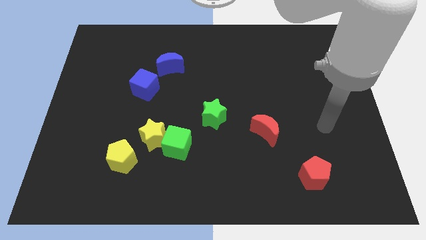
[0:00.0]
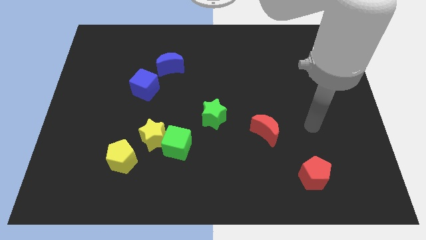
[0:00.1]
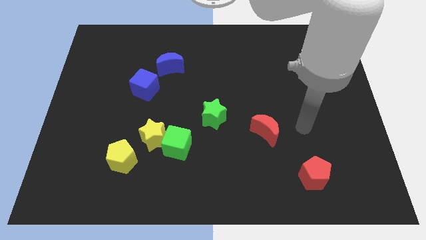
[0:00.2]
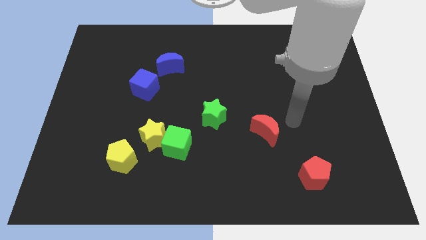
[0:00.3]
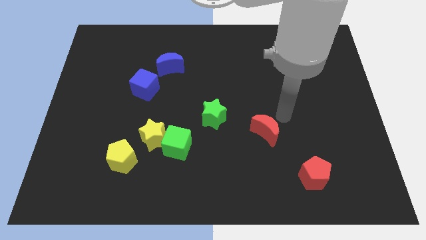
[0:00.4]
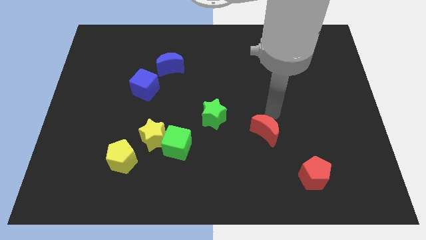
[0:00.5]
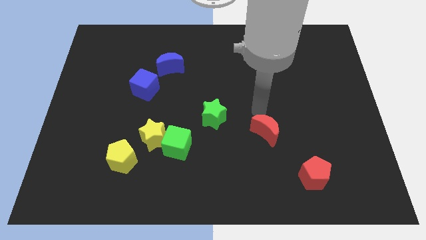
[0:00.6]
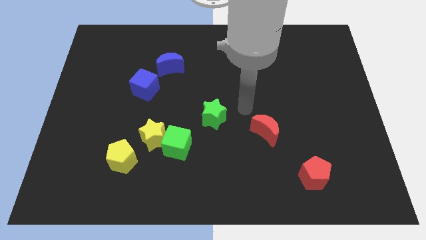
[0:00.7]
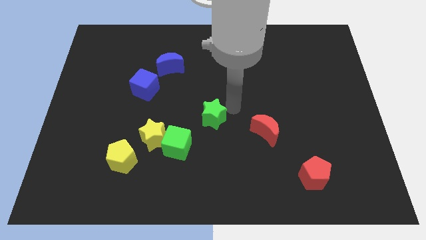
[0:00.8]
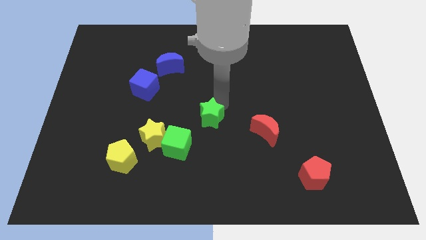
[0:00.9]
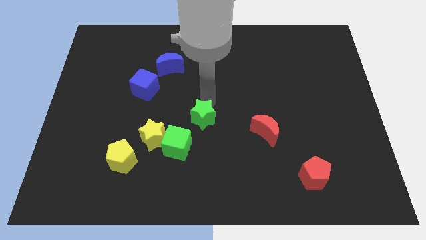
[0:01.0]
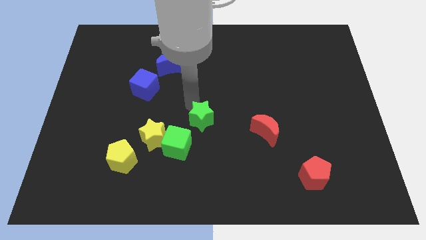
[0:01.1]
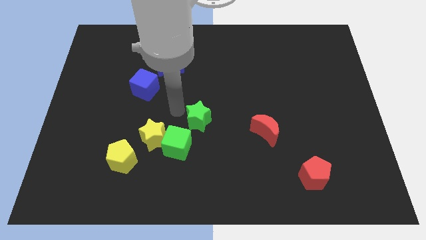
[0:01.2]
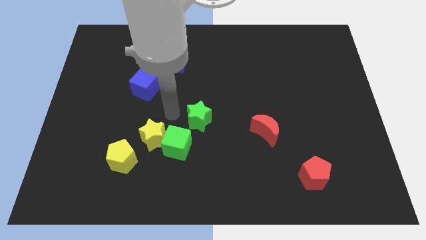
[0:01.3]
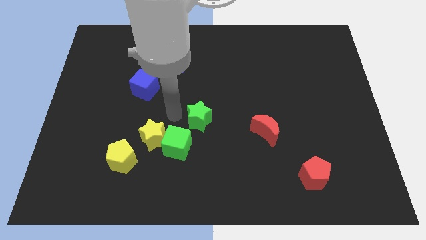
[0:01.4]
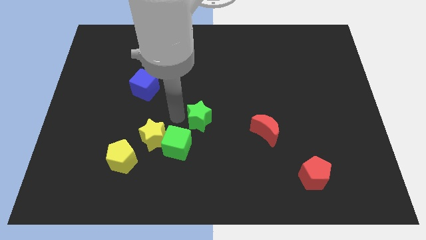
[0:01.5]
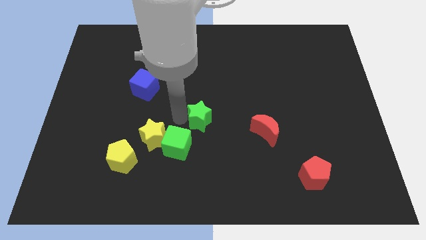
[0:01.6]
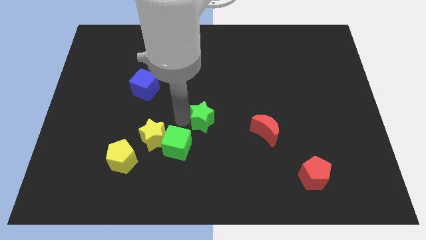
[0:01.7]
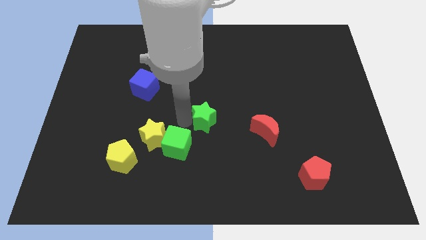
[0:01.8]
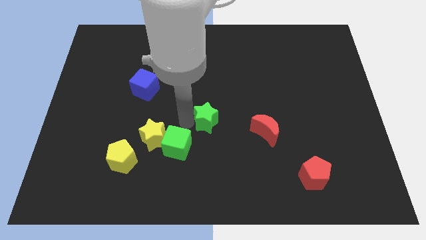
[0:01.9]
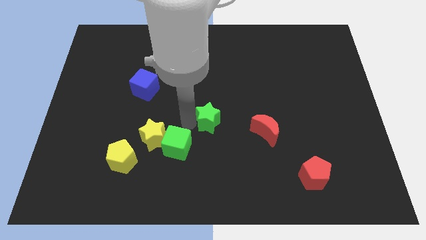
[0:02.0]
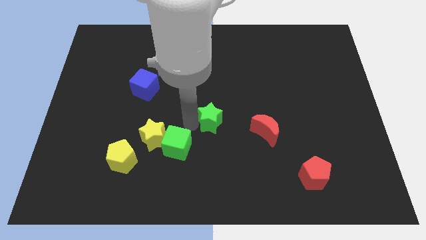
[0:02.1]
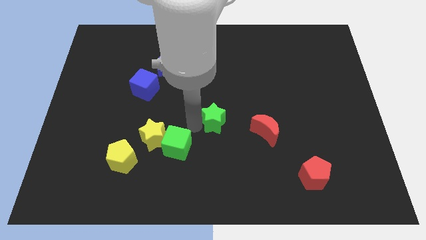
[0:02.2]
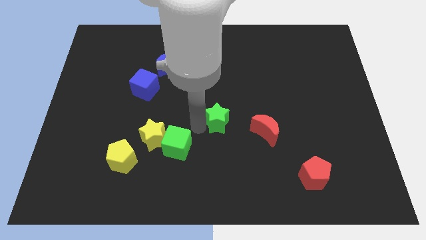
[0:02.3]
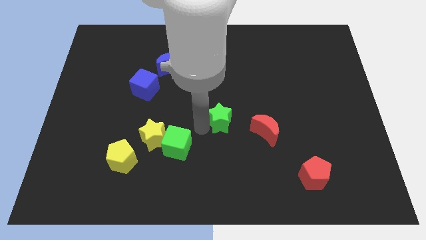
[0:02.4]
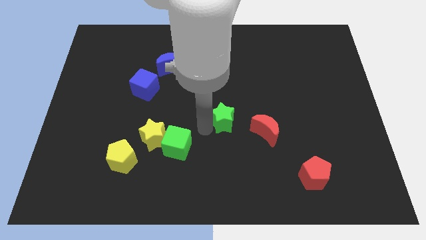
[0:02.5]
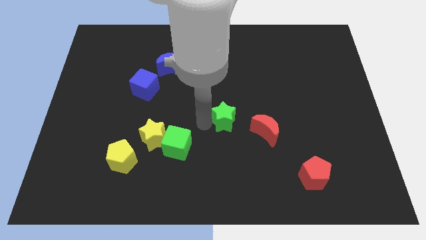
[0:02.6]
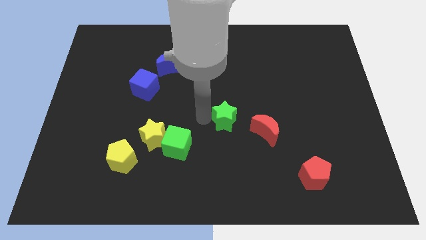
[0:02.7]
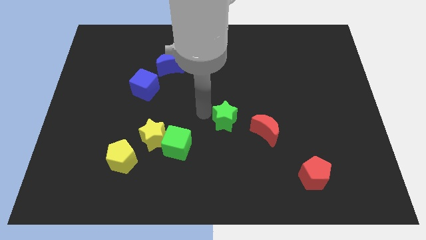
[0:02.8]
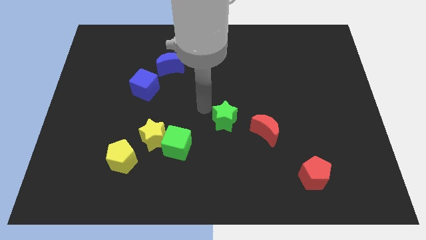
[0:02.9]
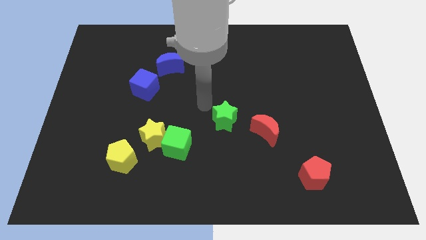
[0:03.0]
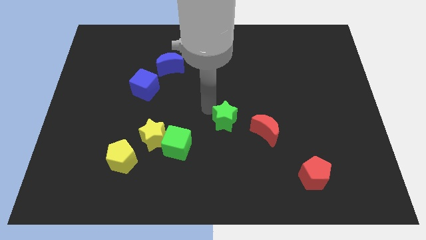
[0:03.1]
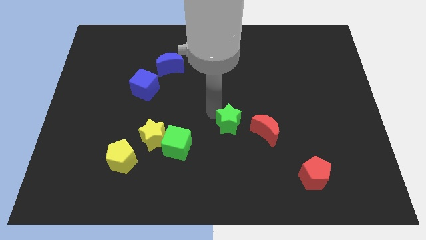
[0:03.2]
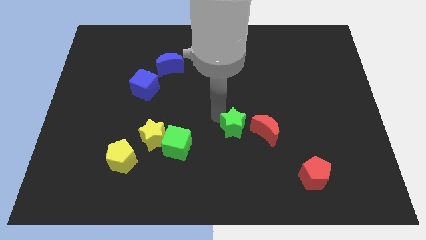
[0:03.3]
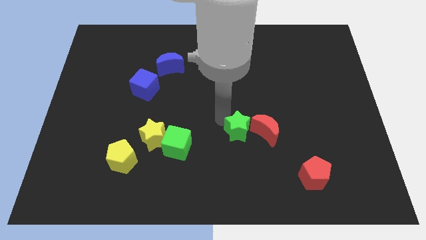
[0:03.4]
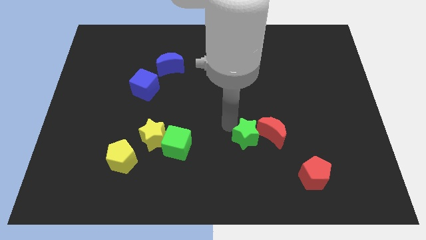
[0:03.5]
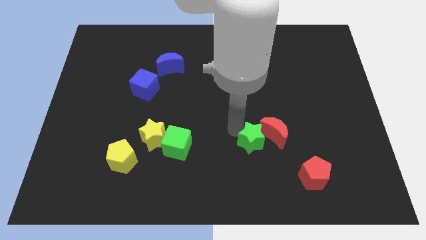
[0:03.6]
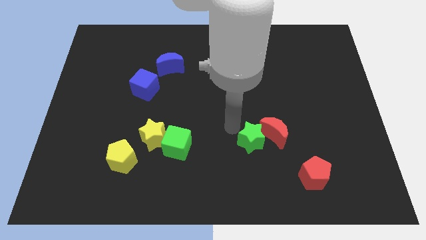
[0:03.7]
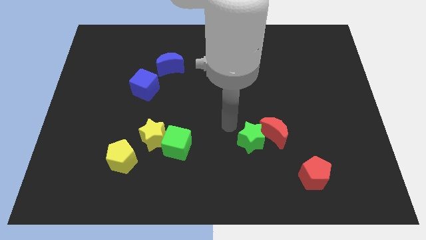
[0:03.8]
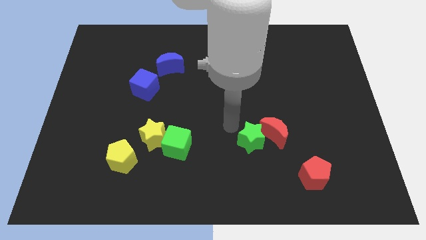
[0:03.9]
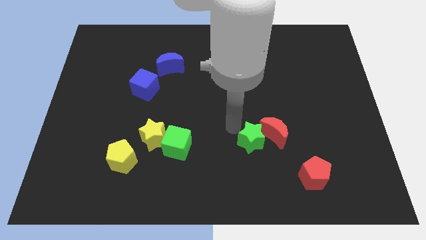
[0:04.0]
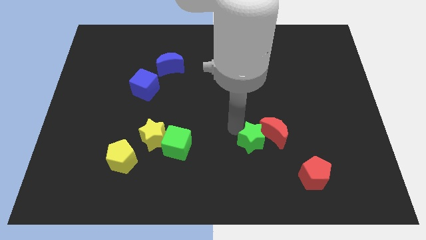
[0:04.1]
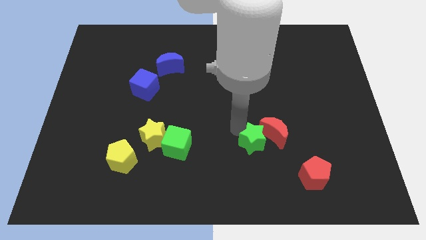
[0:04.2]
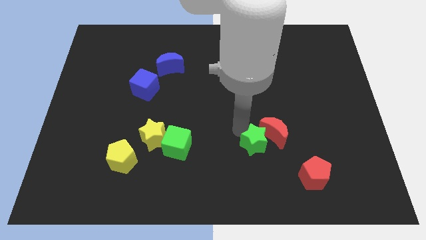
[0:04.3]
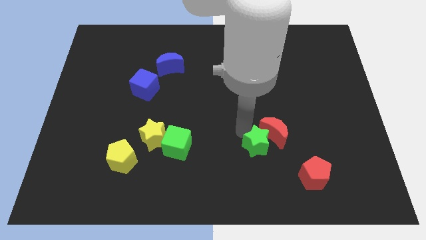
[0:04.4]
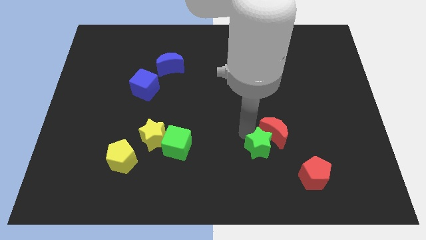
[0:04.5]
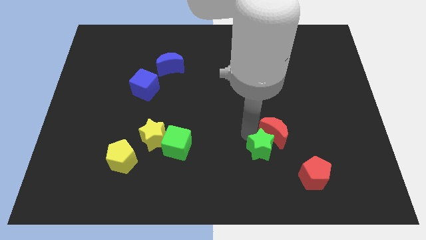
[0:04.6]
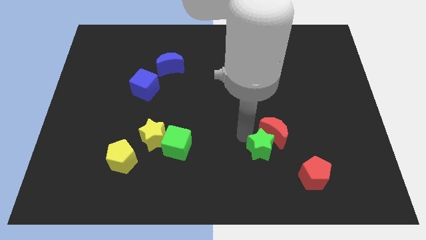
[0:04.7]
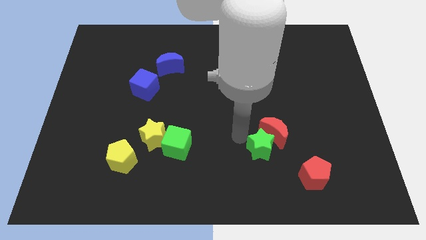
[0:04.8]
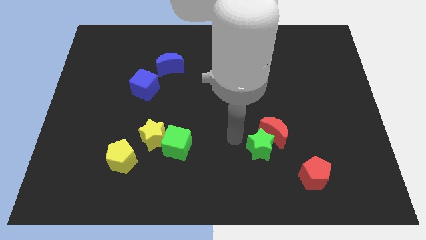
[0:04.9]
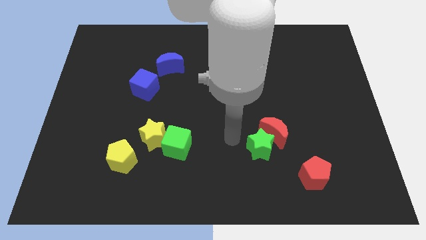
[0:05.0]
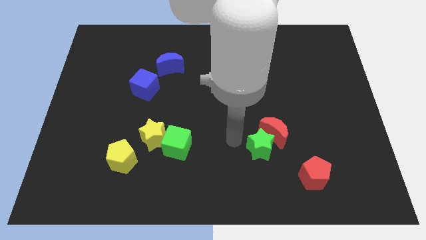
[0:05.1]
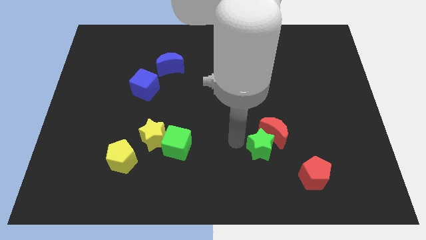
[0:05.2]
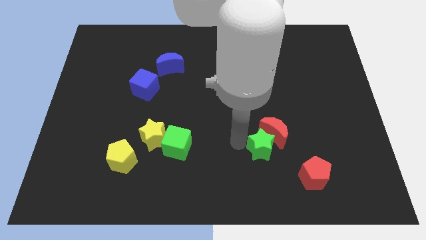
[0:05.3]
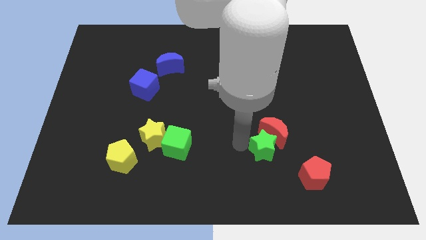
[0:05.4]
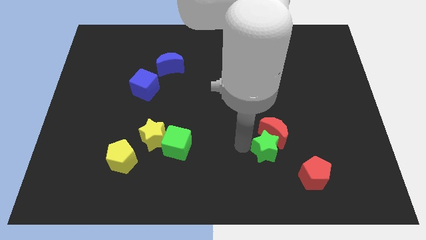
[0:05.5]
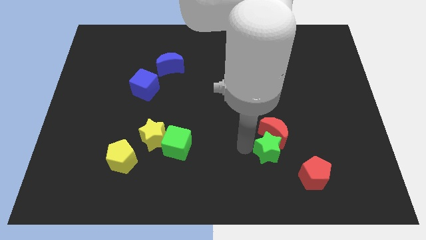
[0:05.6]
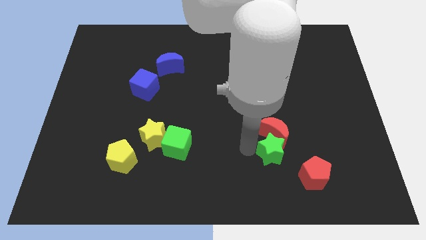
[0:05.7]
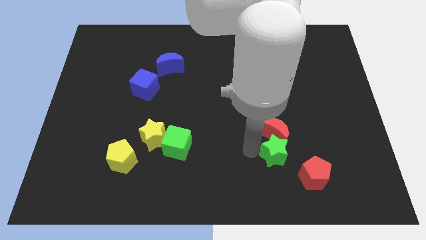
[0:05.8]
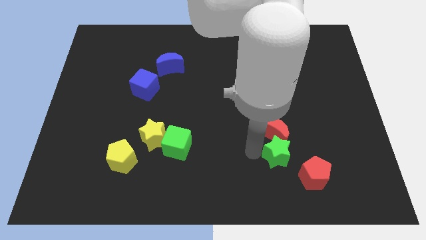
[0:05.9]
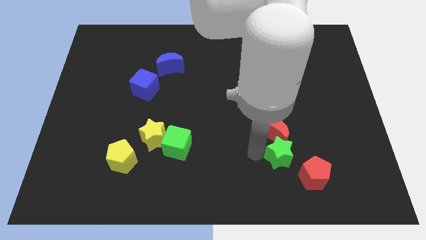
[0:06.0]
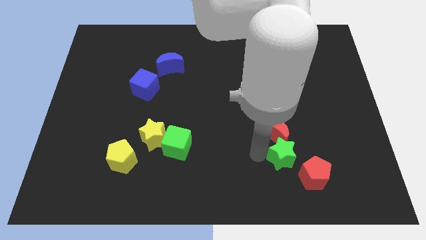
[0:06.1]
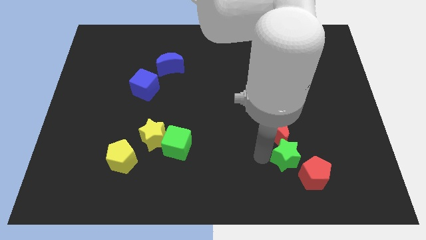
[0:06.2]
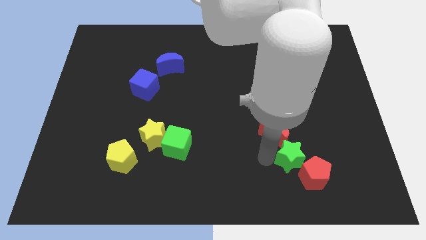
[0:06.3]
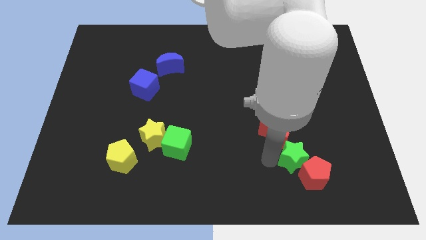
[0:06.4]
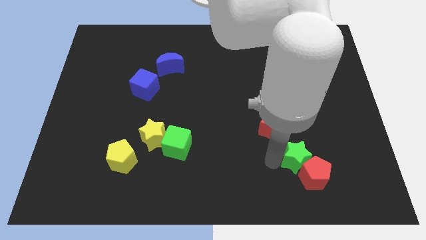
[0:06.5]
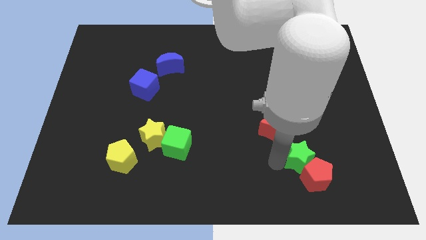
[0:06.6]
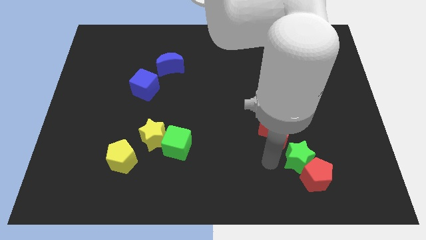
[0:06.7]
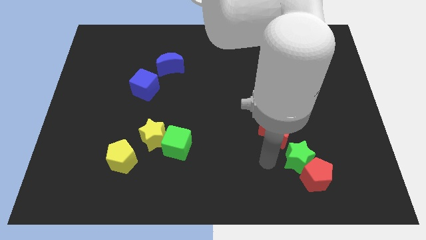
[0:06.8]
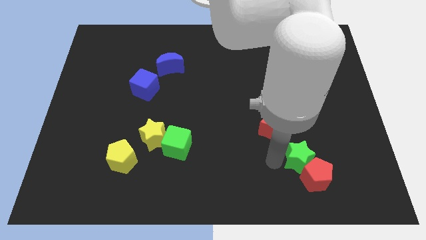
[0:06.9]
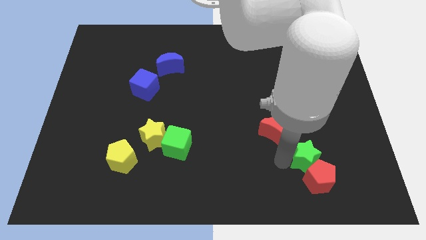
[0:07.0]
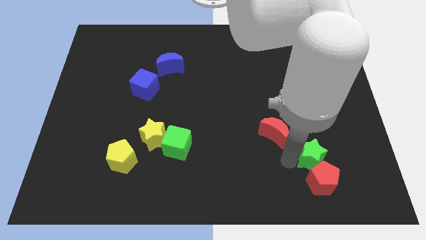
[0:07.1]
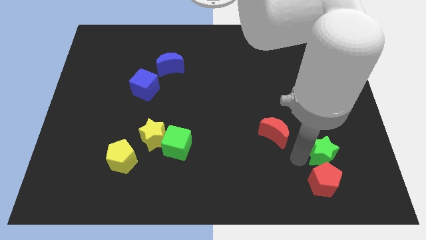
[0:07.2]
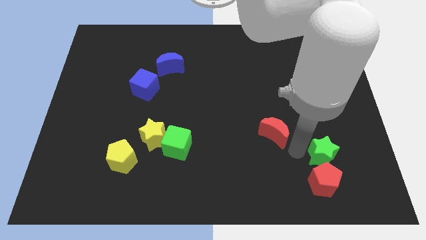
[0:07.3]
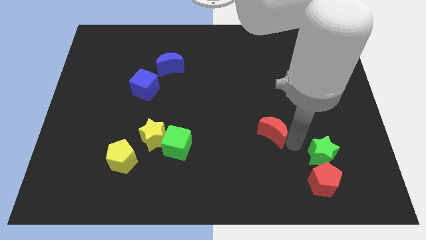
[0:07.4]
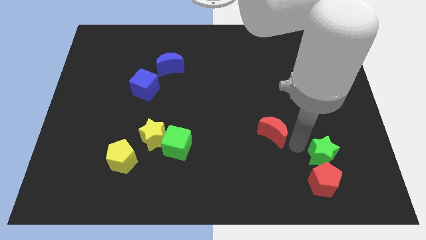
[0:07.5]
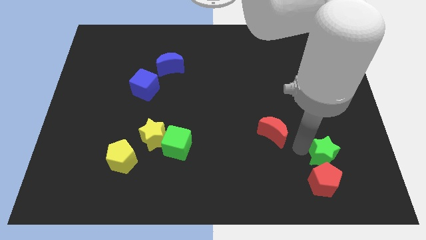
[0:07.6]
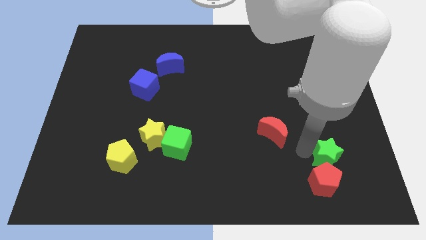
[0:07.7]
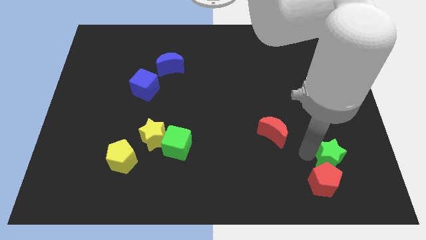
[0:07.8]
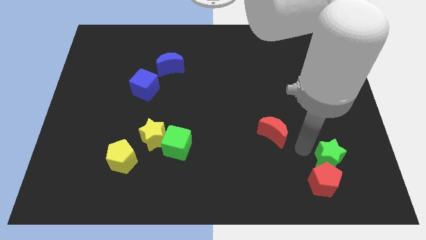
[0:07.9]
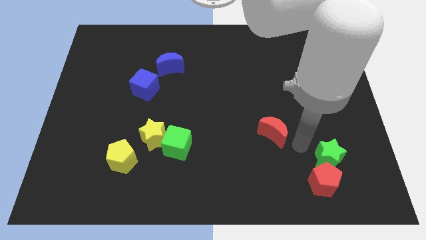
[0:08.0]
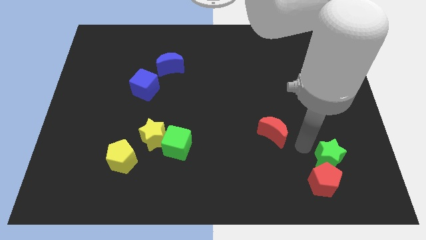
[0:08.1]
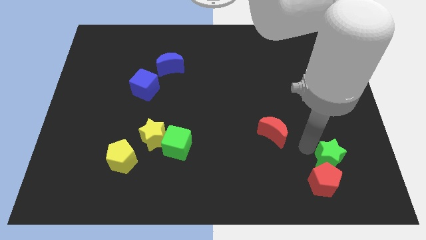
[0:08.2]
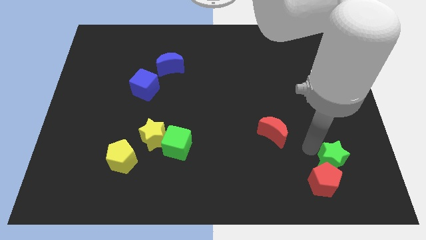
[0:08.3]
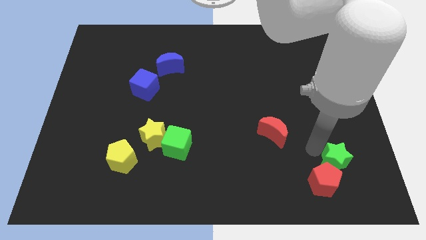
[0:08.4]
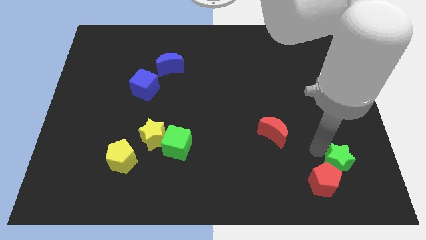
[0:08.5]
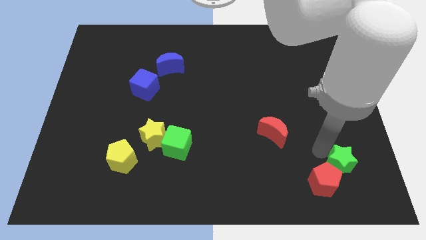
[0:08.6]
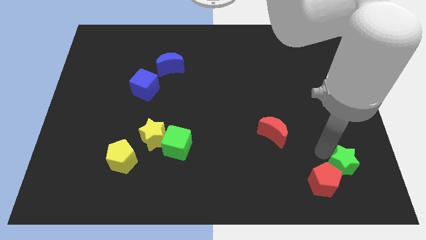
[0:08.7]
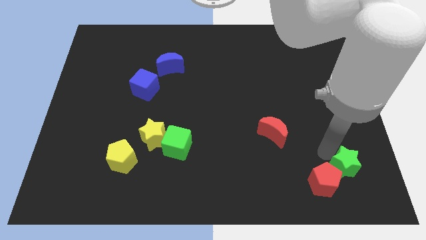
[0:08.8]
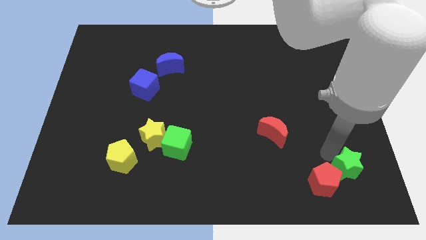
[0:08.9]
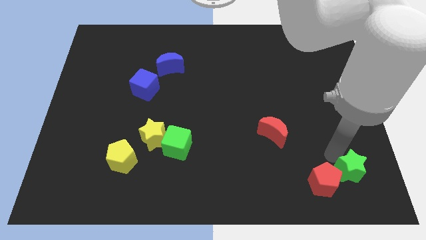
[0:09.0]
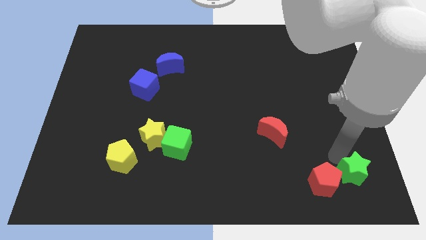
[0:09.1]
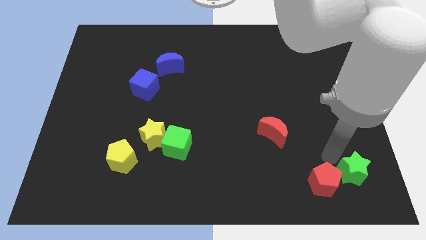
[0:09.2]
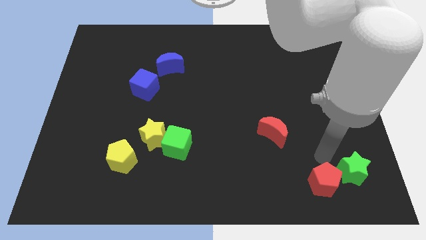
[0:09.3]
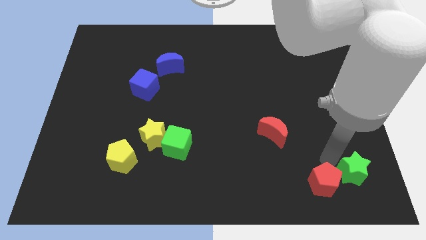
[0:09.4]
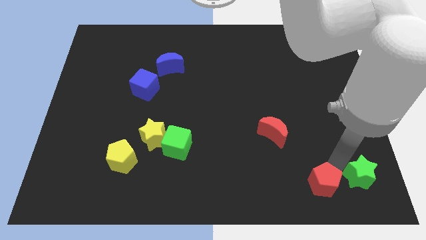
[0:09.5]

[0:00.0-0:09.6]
push the green star to the bottom right corner
